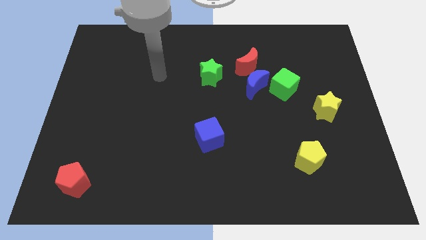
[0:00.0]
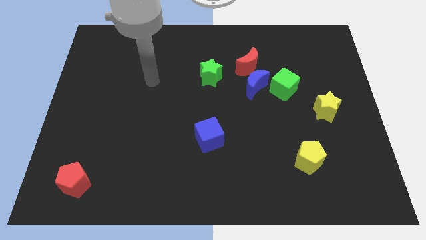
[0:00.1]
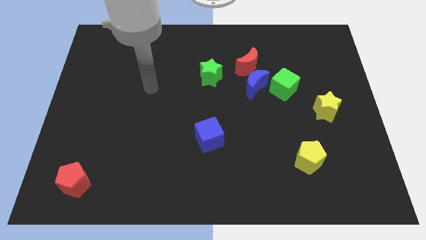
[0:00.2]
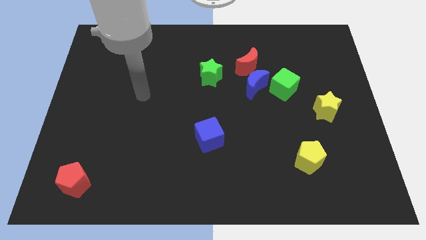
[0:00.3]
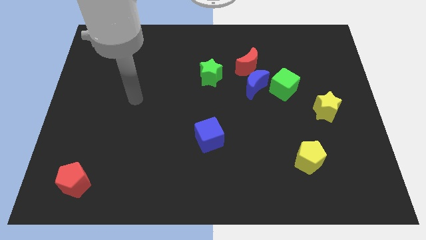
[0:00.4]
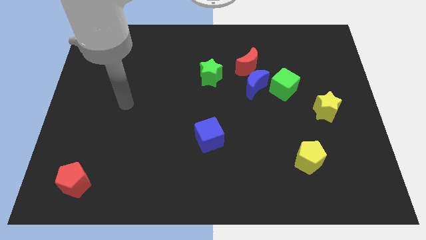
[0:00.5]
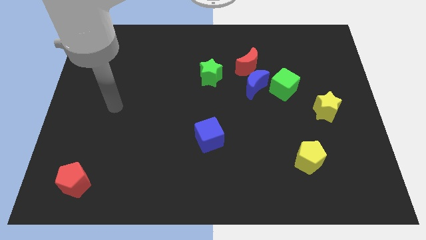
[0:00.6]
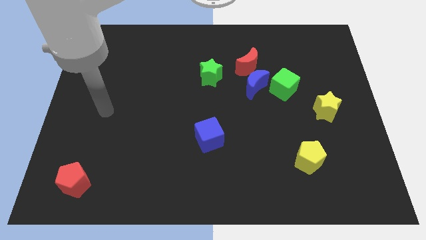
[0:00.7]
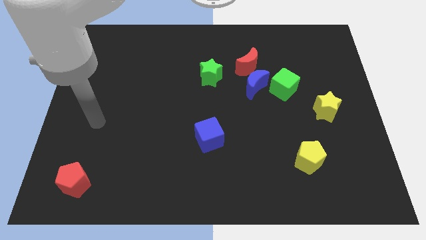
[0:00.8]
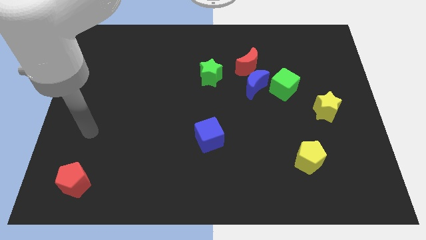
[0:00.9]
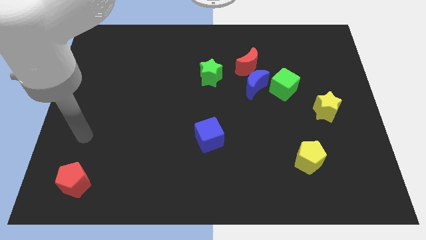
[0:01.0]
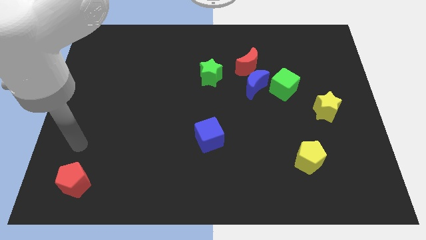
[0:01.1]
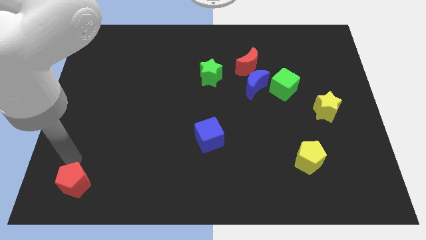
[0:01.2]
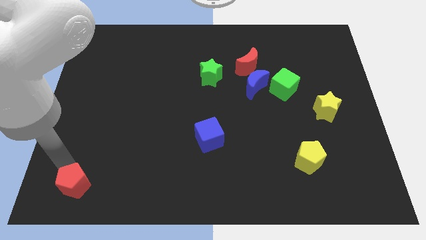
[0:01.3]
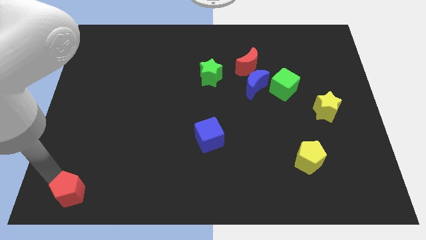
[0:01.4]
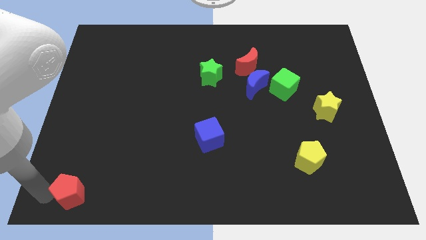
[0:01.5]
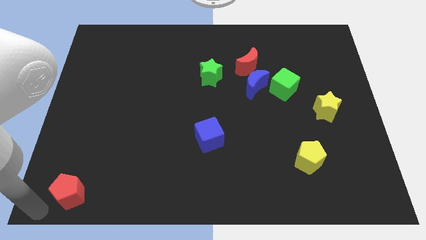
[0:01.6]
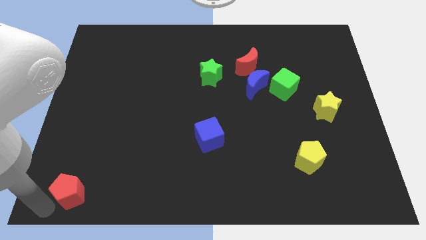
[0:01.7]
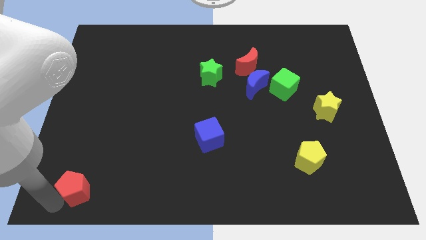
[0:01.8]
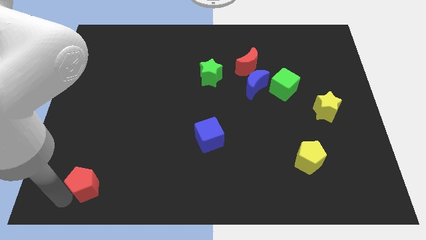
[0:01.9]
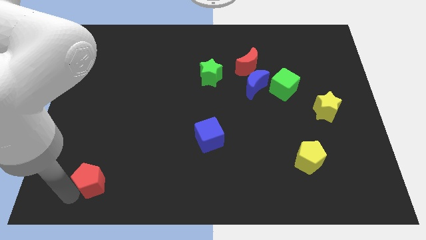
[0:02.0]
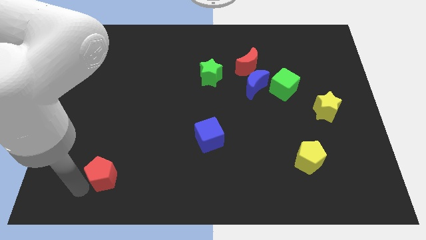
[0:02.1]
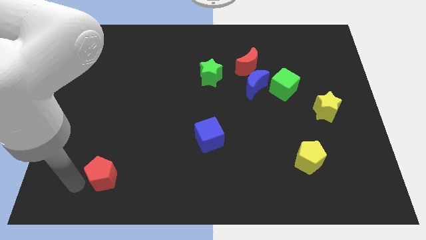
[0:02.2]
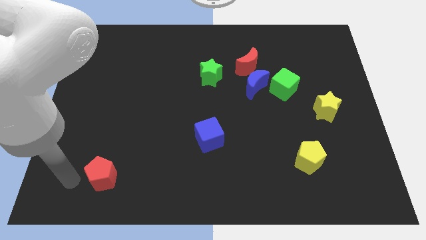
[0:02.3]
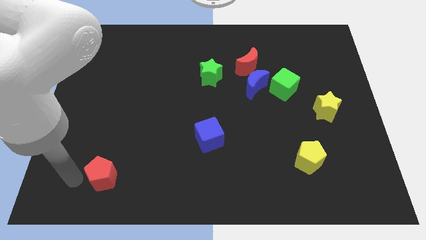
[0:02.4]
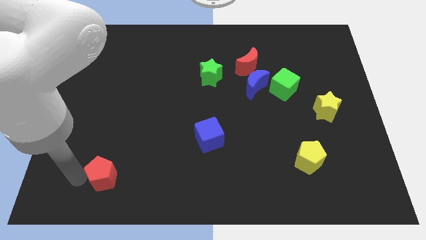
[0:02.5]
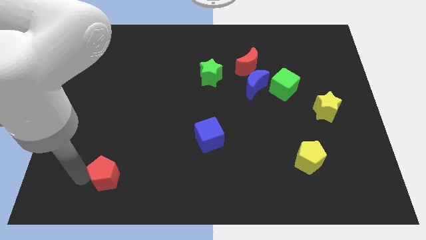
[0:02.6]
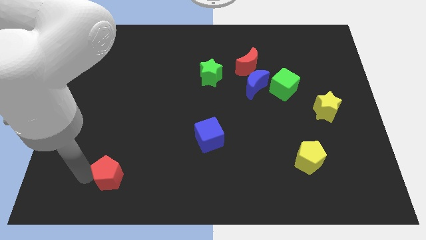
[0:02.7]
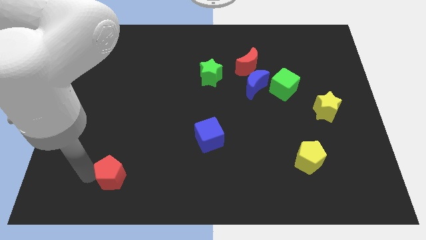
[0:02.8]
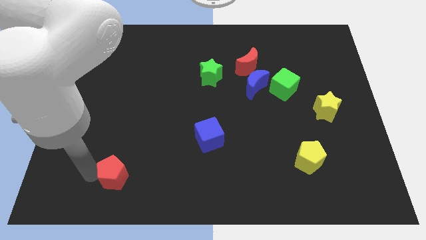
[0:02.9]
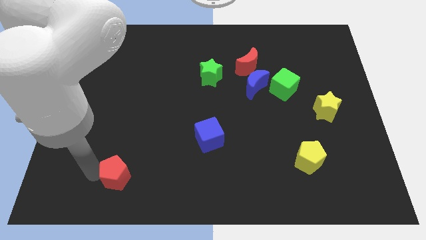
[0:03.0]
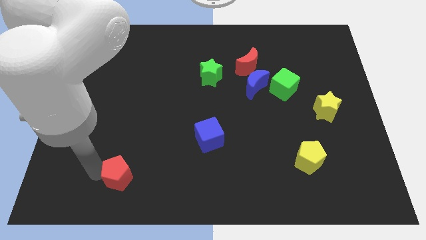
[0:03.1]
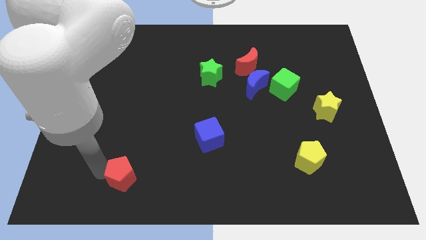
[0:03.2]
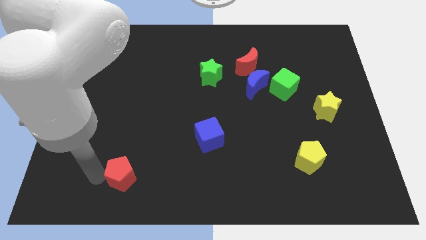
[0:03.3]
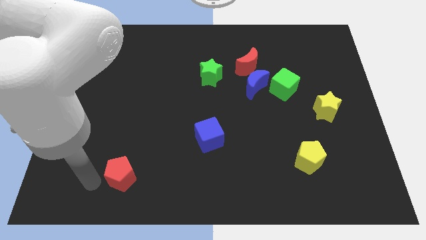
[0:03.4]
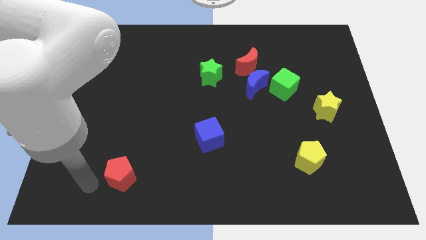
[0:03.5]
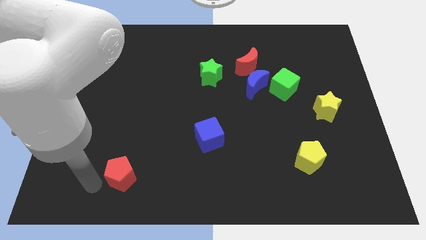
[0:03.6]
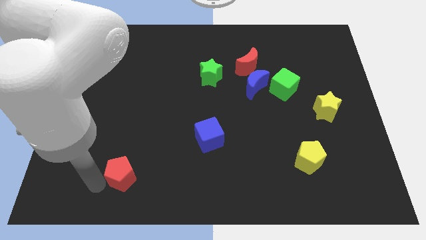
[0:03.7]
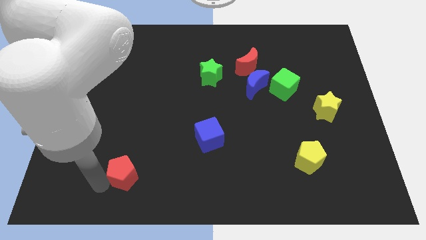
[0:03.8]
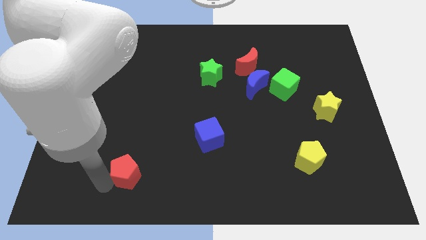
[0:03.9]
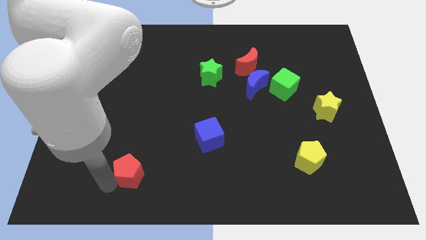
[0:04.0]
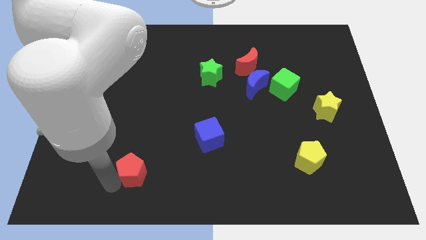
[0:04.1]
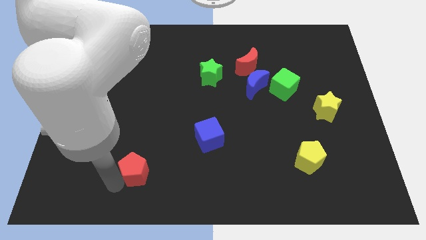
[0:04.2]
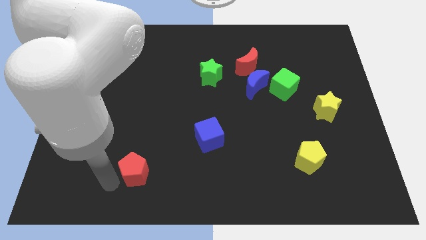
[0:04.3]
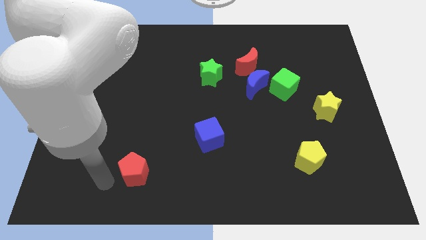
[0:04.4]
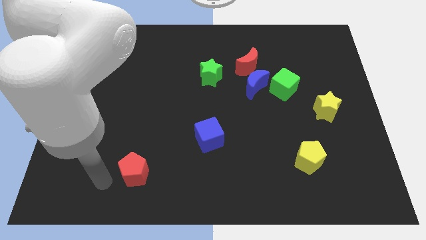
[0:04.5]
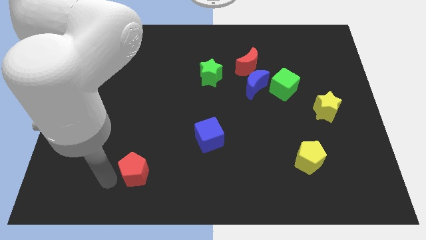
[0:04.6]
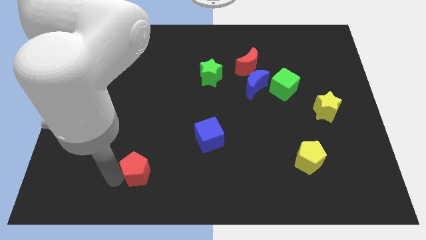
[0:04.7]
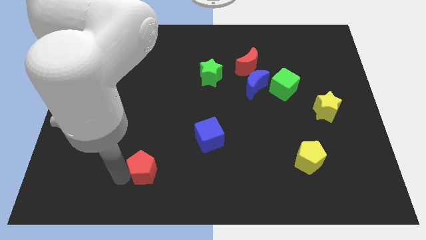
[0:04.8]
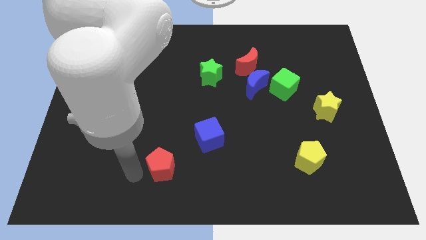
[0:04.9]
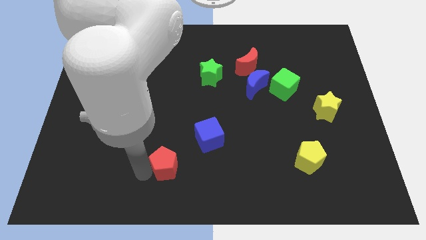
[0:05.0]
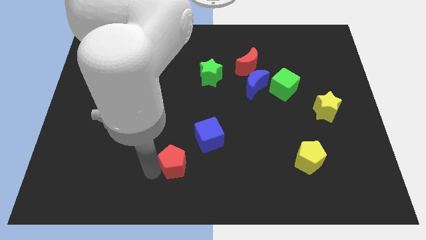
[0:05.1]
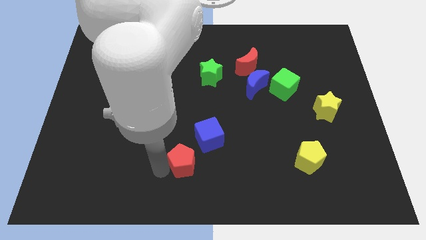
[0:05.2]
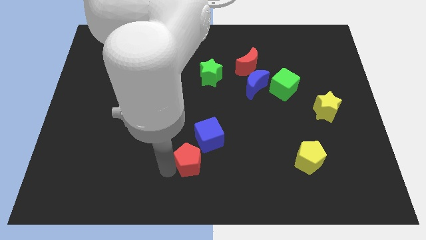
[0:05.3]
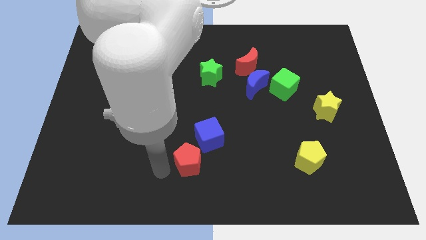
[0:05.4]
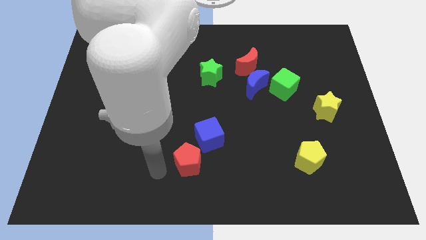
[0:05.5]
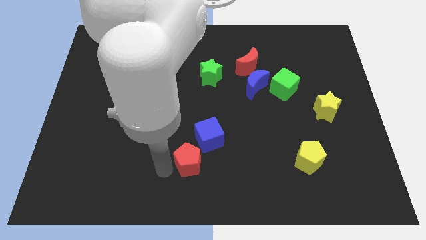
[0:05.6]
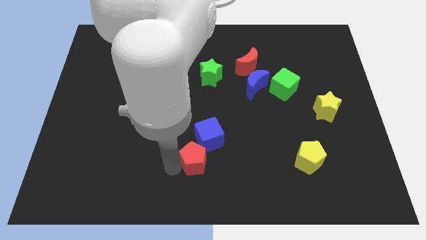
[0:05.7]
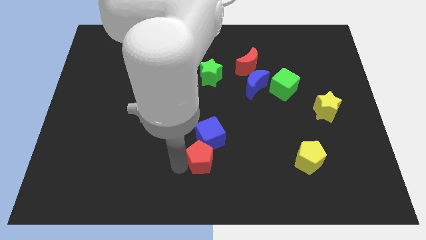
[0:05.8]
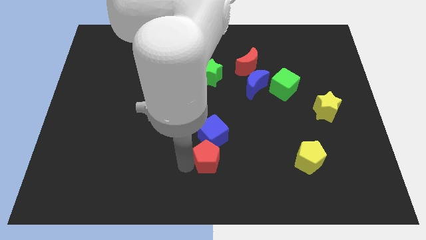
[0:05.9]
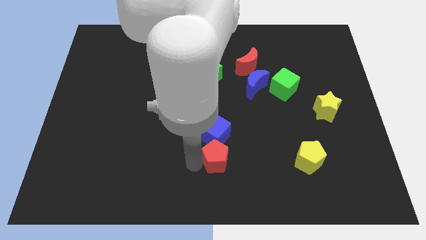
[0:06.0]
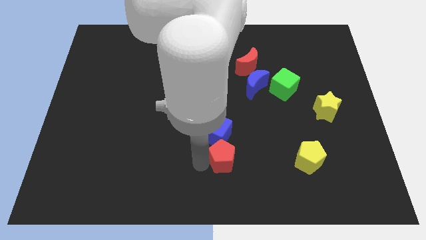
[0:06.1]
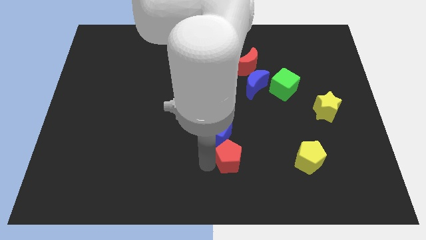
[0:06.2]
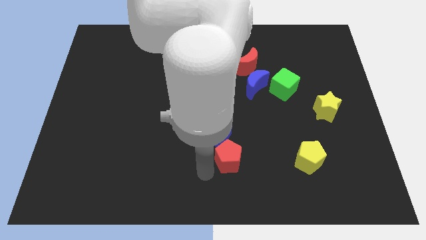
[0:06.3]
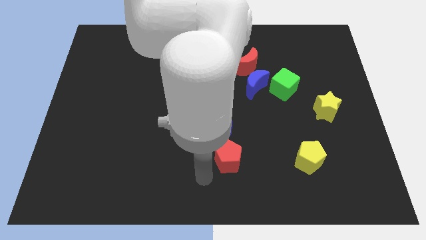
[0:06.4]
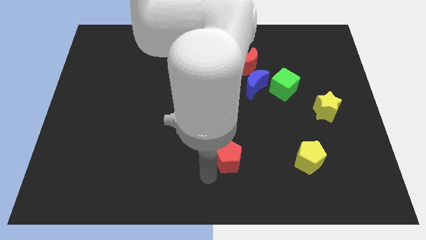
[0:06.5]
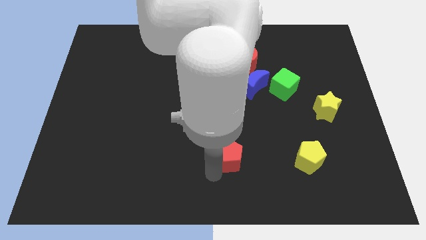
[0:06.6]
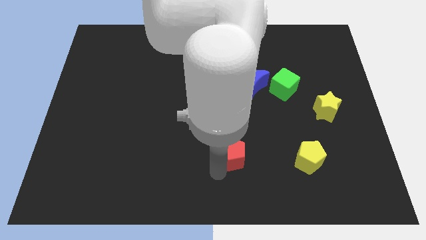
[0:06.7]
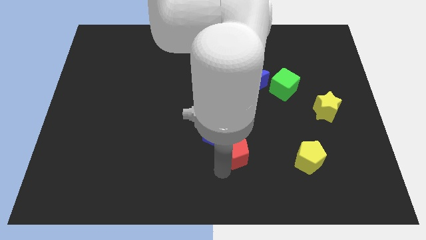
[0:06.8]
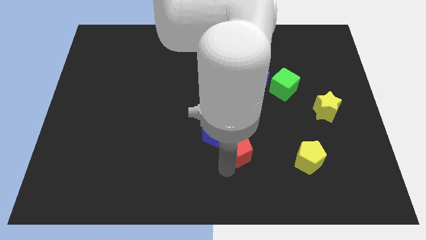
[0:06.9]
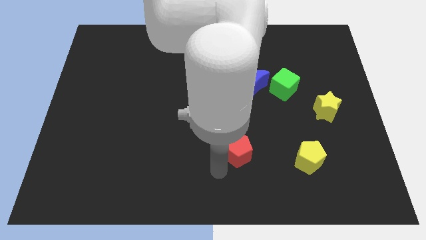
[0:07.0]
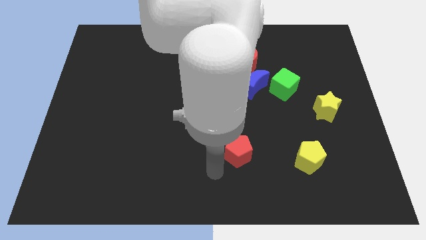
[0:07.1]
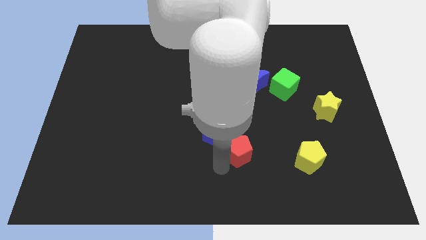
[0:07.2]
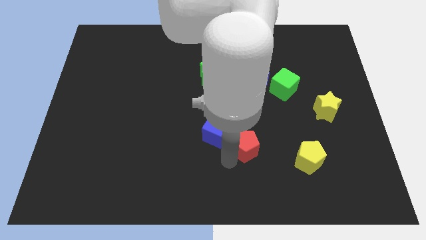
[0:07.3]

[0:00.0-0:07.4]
put the red pentagon right of the blue cube

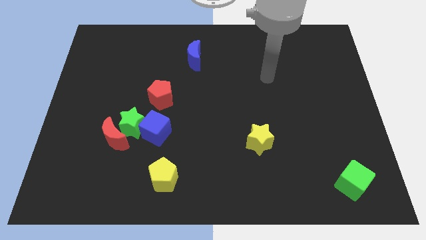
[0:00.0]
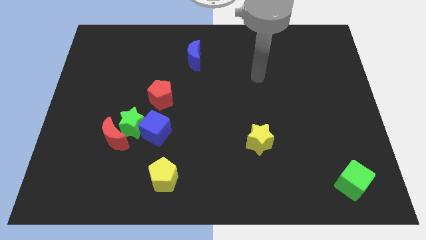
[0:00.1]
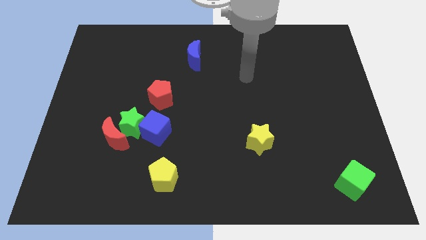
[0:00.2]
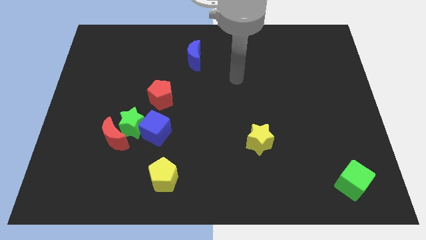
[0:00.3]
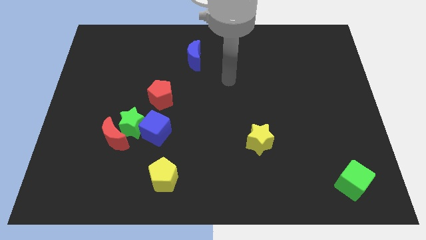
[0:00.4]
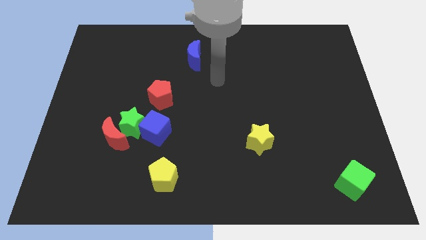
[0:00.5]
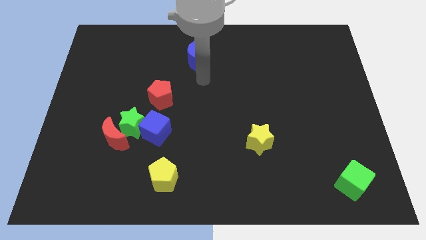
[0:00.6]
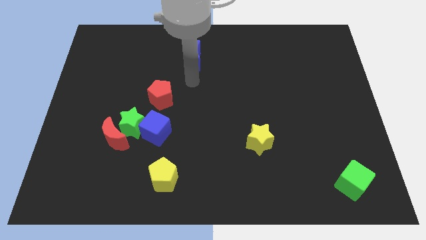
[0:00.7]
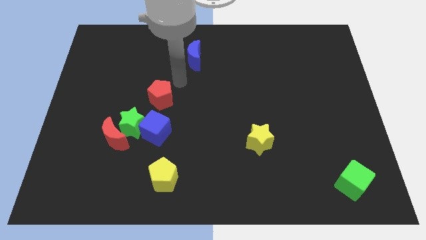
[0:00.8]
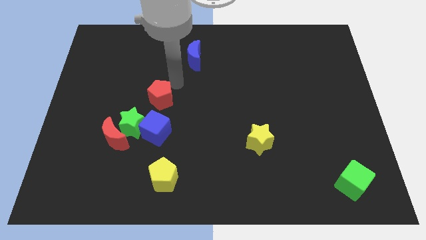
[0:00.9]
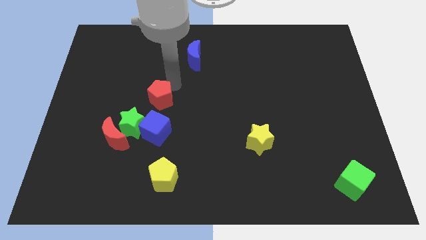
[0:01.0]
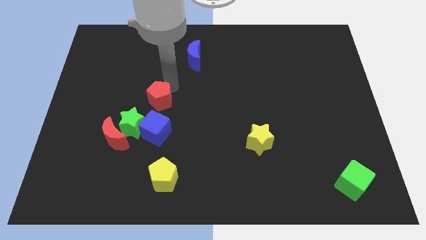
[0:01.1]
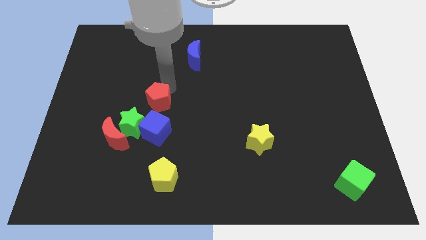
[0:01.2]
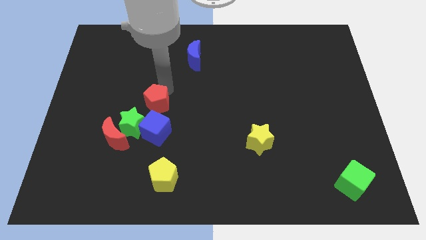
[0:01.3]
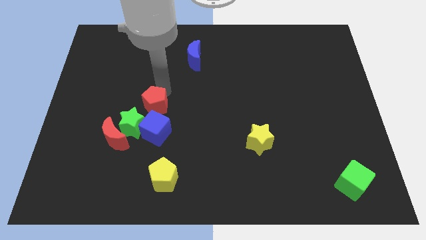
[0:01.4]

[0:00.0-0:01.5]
put the red pentagon to the top right of the red moon
